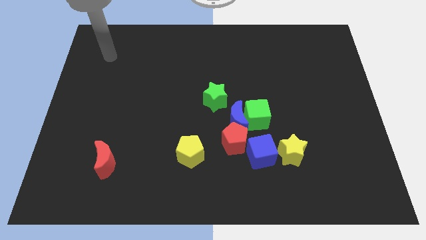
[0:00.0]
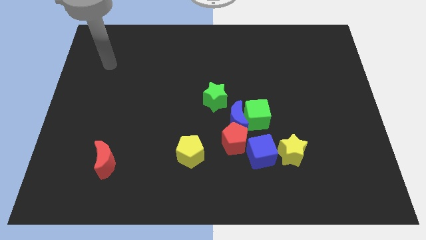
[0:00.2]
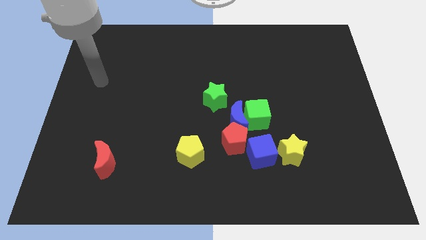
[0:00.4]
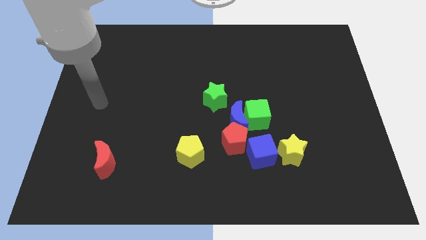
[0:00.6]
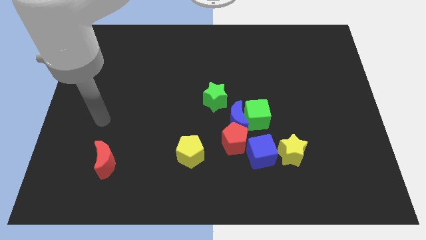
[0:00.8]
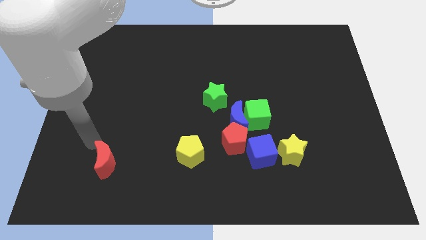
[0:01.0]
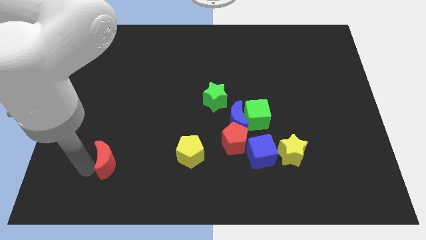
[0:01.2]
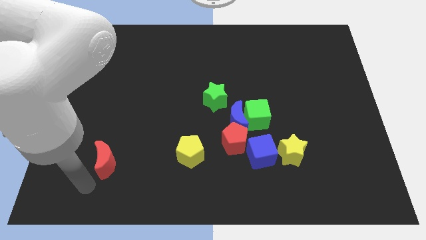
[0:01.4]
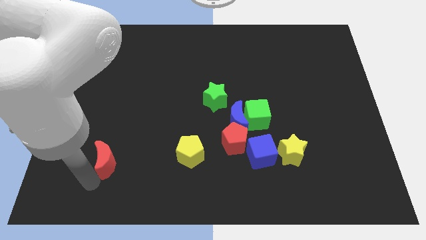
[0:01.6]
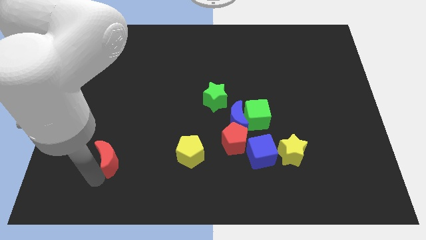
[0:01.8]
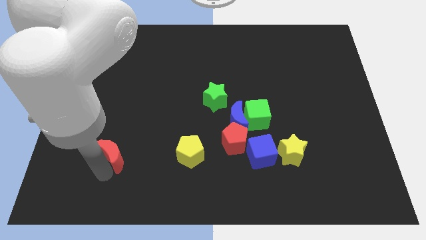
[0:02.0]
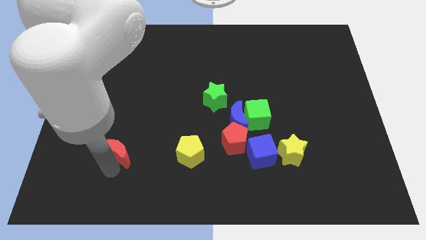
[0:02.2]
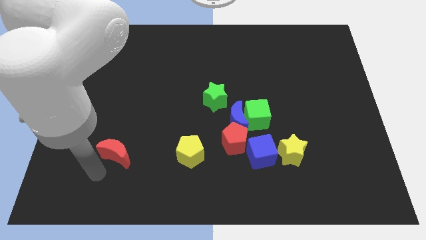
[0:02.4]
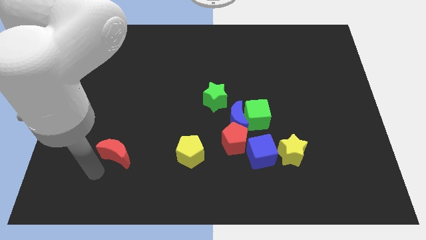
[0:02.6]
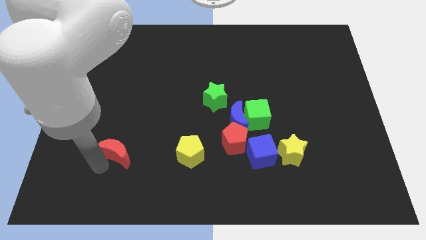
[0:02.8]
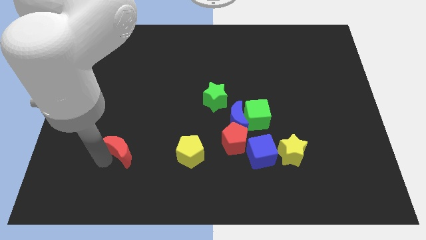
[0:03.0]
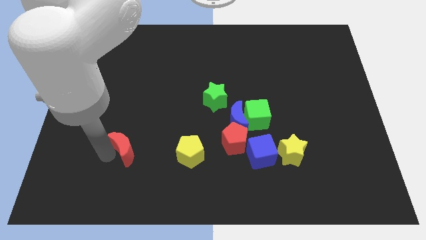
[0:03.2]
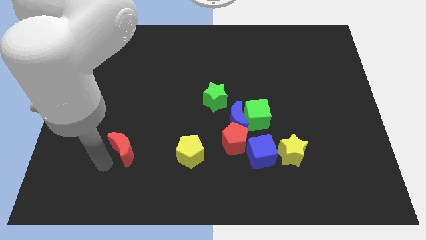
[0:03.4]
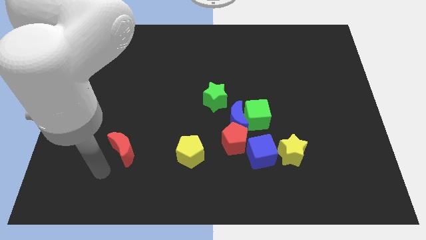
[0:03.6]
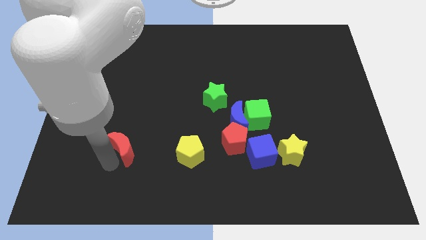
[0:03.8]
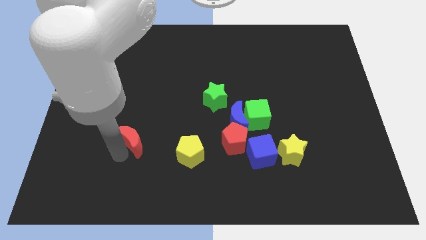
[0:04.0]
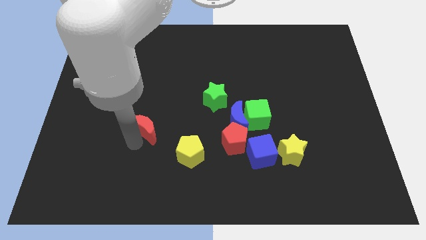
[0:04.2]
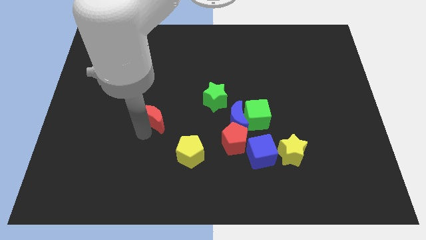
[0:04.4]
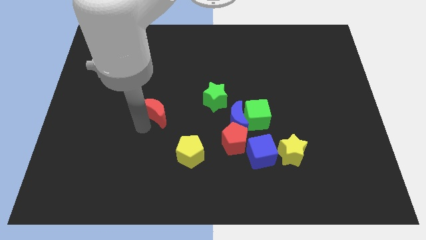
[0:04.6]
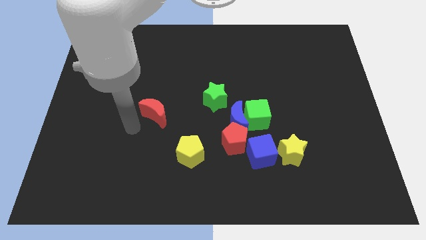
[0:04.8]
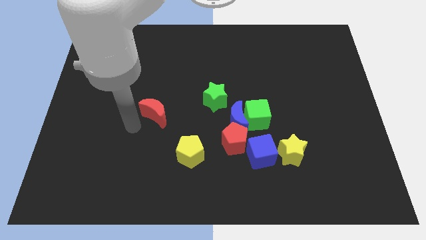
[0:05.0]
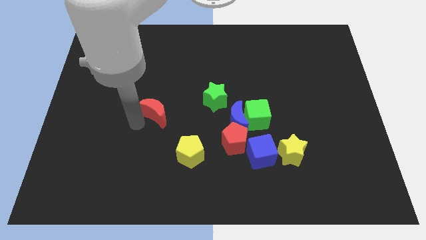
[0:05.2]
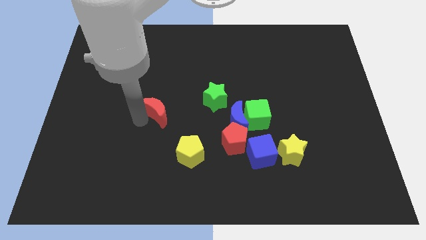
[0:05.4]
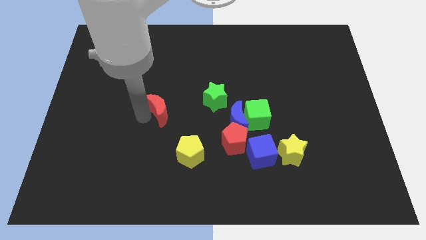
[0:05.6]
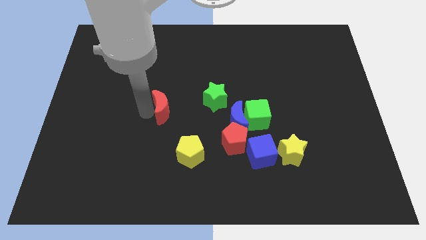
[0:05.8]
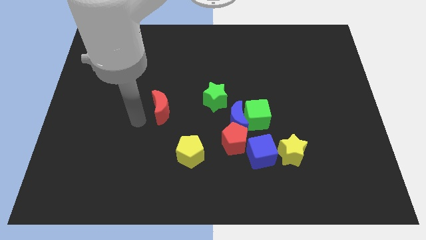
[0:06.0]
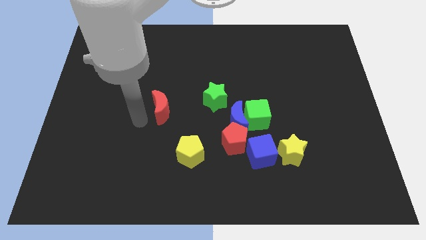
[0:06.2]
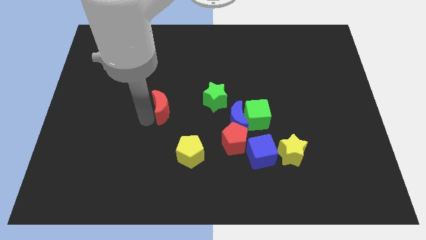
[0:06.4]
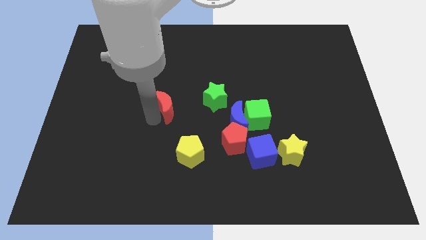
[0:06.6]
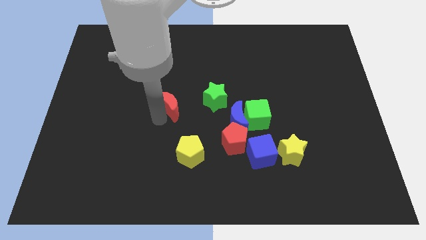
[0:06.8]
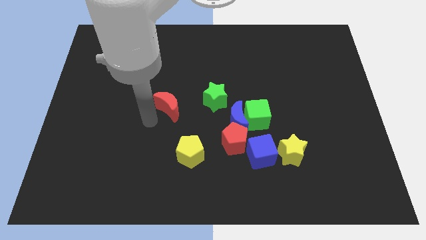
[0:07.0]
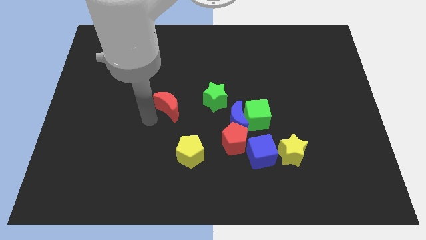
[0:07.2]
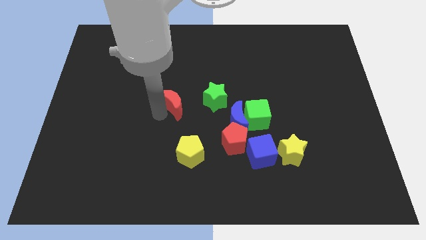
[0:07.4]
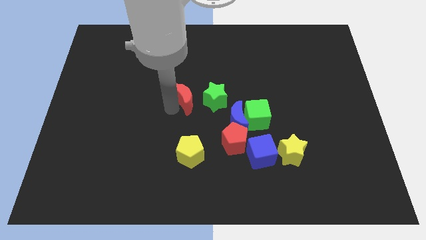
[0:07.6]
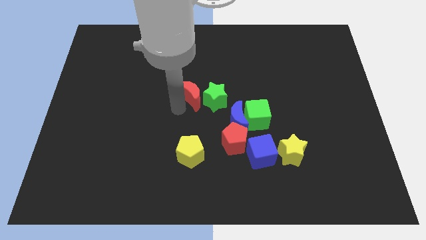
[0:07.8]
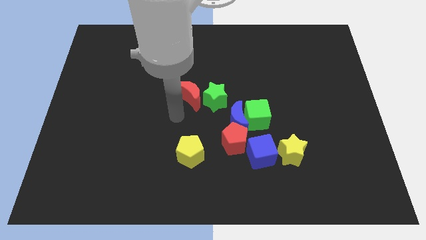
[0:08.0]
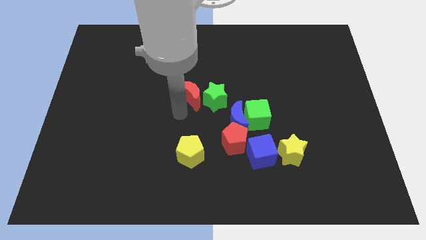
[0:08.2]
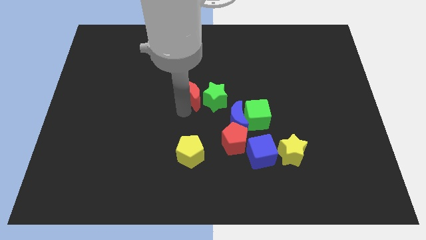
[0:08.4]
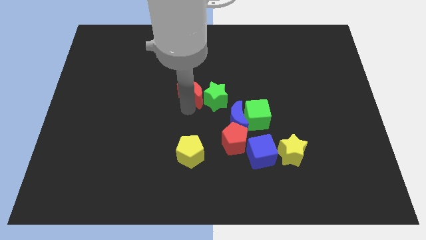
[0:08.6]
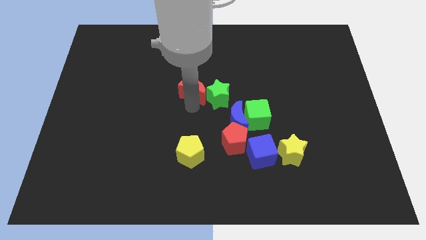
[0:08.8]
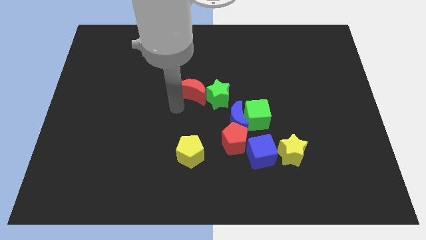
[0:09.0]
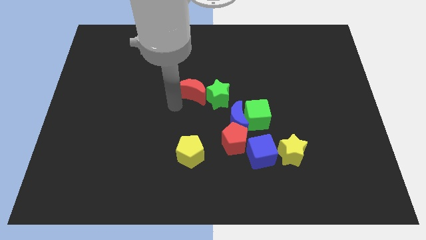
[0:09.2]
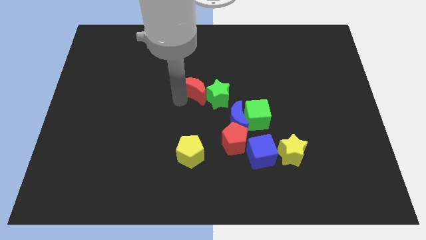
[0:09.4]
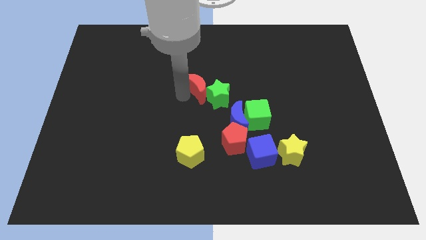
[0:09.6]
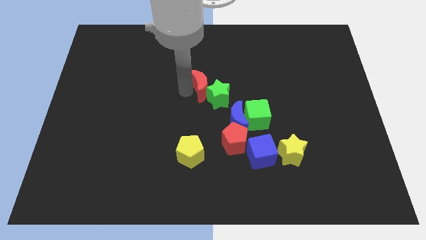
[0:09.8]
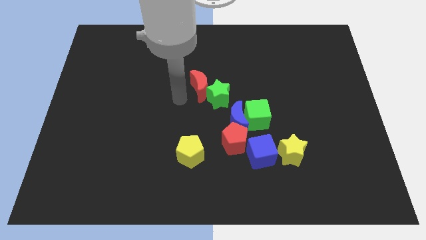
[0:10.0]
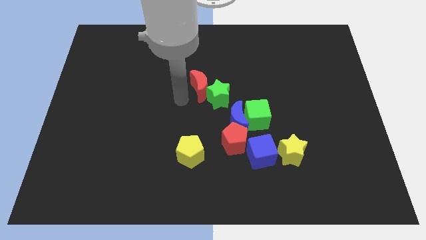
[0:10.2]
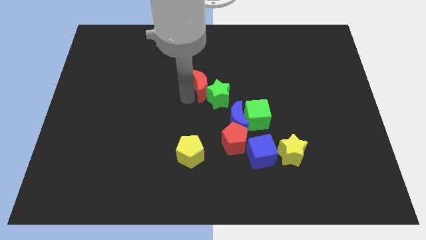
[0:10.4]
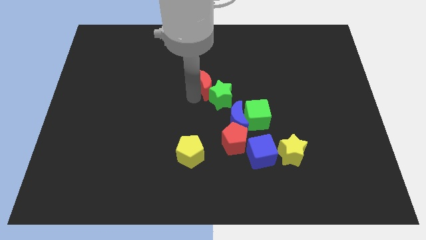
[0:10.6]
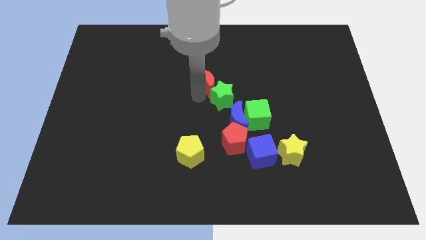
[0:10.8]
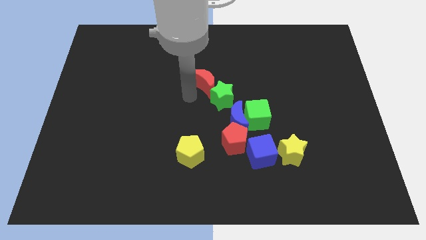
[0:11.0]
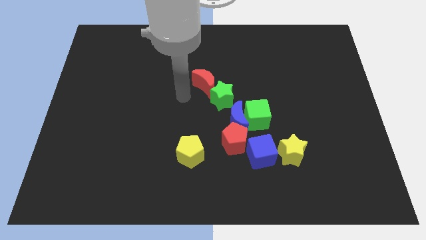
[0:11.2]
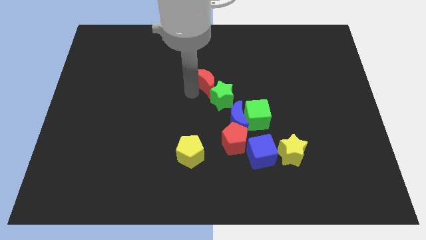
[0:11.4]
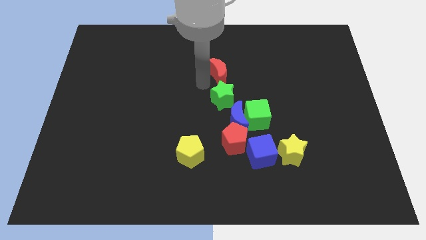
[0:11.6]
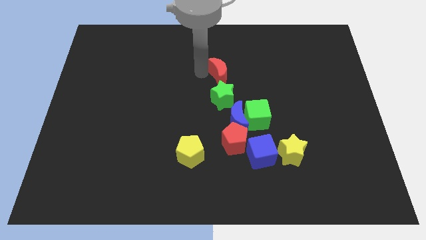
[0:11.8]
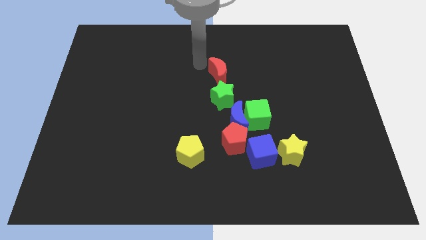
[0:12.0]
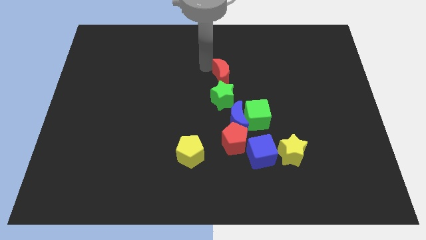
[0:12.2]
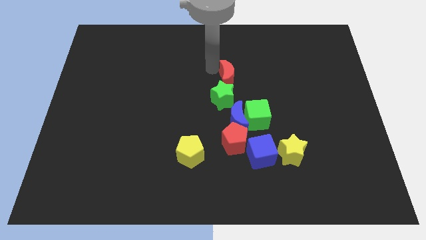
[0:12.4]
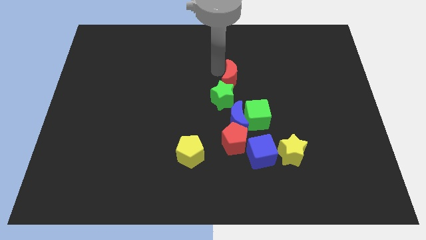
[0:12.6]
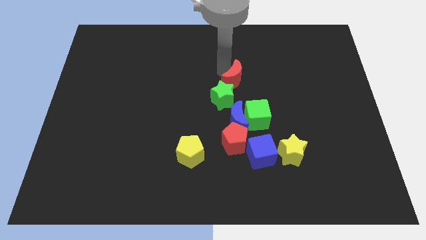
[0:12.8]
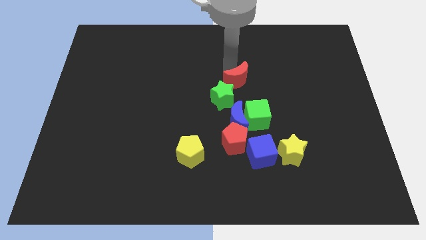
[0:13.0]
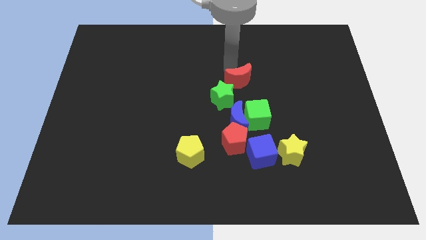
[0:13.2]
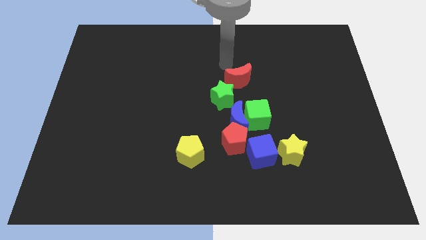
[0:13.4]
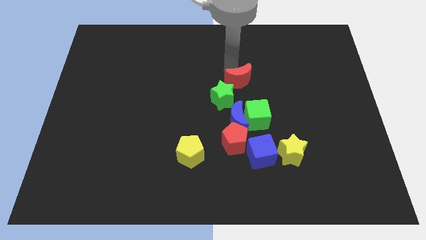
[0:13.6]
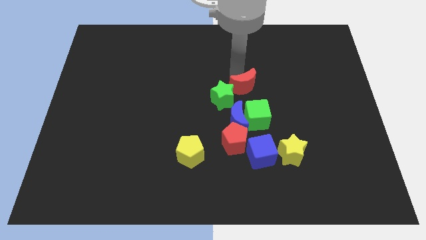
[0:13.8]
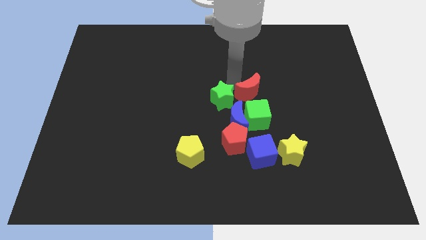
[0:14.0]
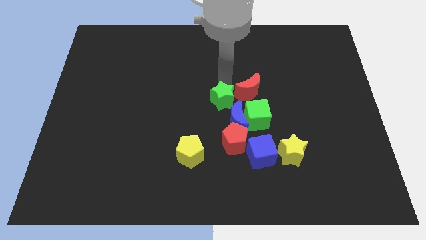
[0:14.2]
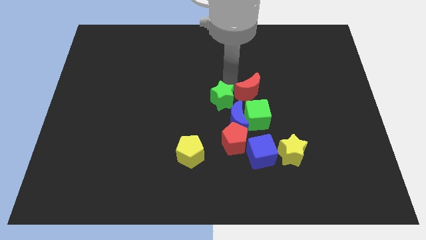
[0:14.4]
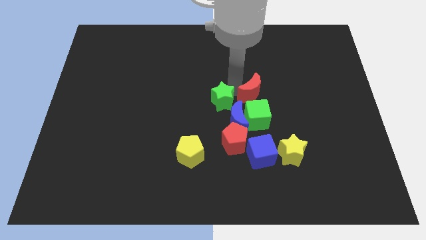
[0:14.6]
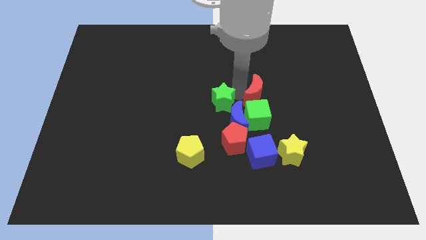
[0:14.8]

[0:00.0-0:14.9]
slide the red moon to the top right of the green cube

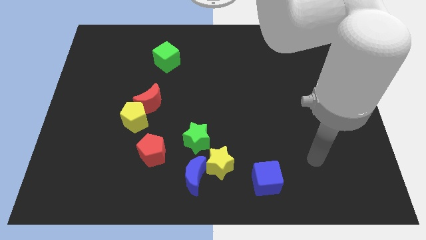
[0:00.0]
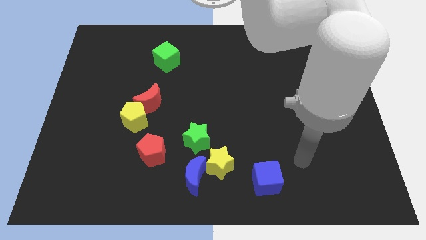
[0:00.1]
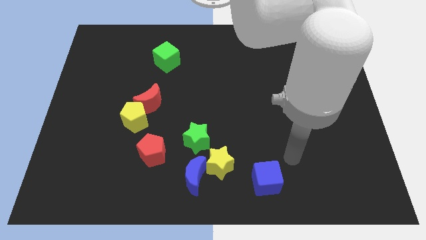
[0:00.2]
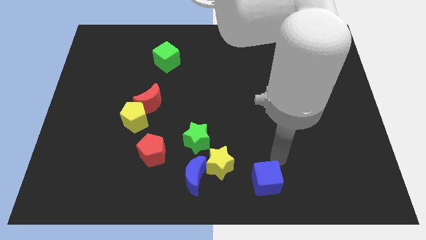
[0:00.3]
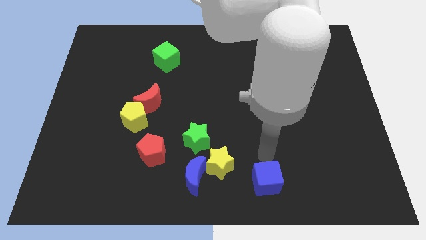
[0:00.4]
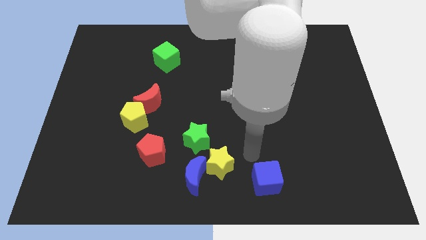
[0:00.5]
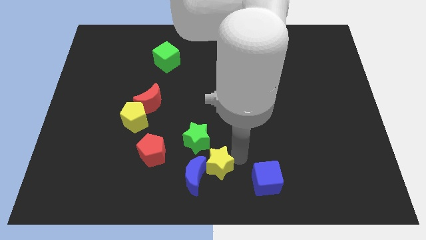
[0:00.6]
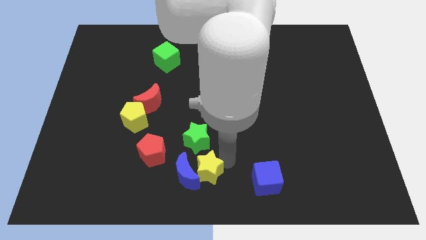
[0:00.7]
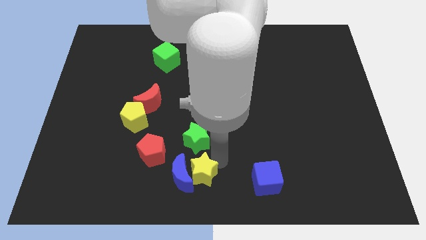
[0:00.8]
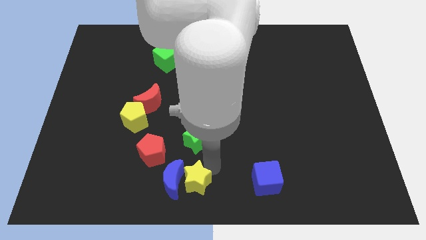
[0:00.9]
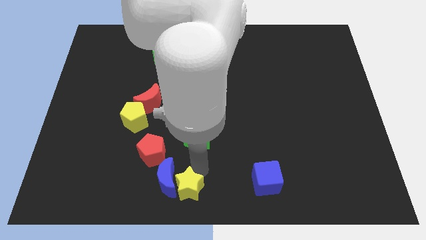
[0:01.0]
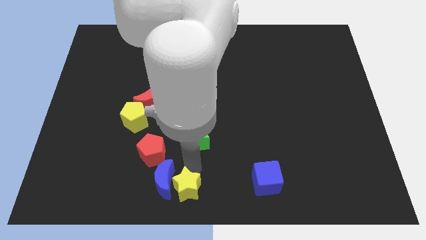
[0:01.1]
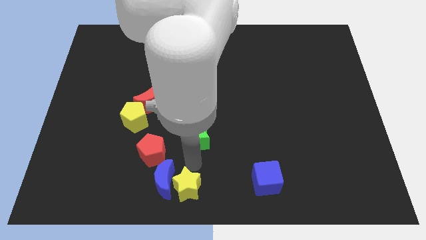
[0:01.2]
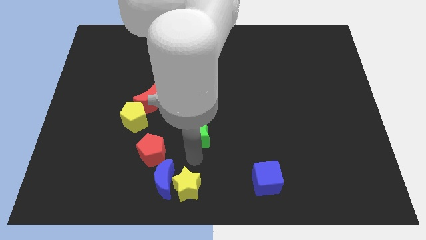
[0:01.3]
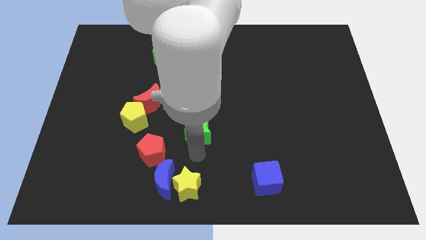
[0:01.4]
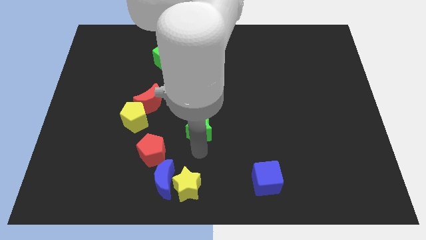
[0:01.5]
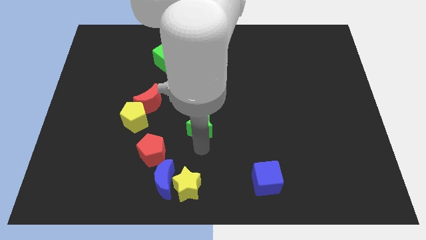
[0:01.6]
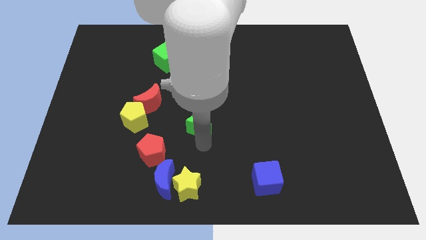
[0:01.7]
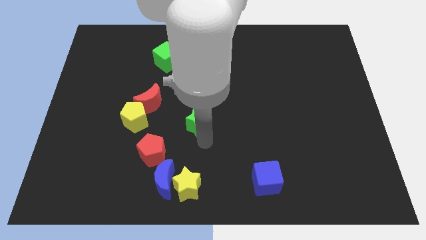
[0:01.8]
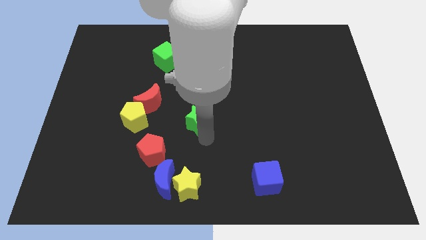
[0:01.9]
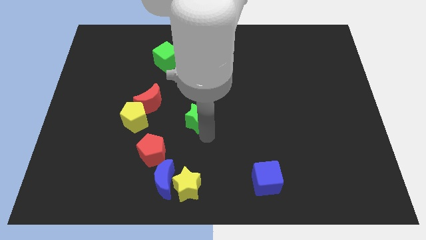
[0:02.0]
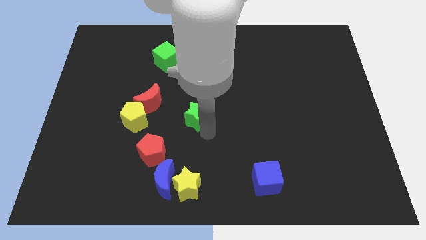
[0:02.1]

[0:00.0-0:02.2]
move the green star right of the red moon
